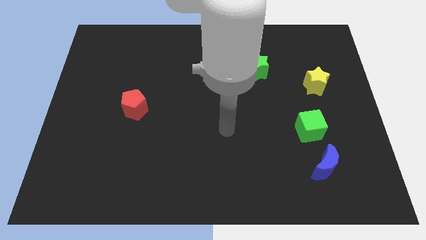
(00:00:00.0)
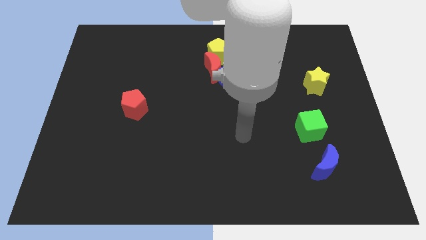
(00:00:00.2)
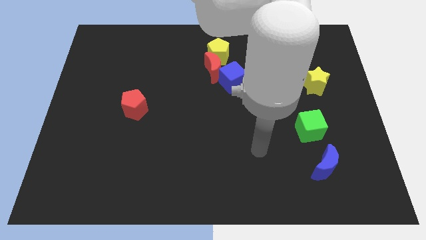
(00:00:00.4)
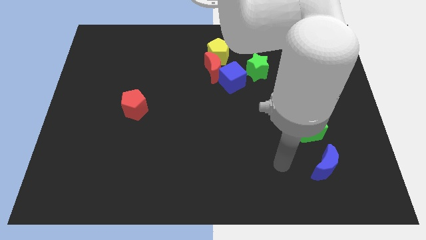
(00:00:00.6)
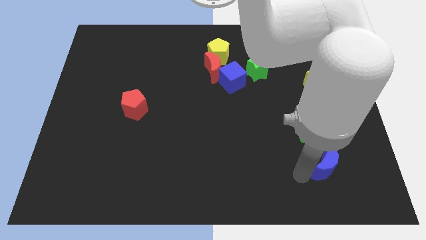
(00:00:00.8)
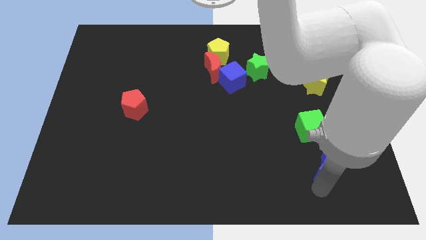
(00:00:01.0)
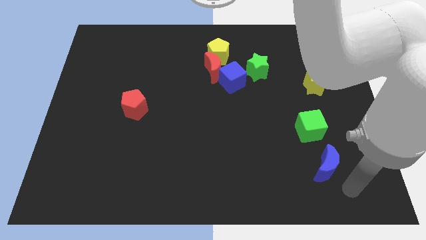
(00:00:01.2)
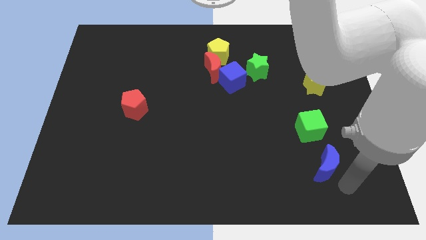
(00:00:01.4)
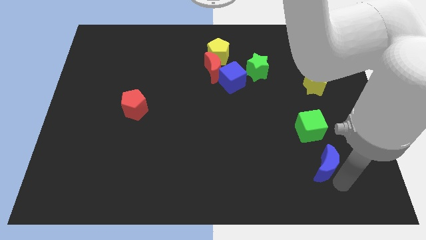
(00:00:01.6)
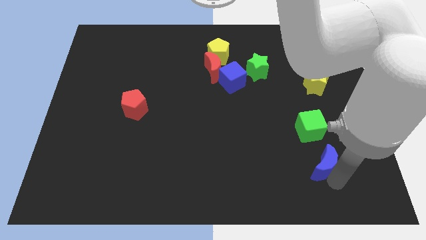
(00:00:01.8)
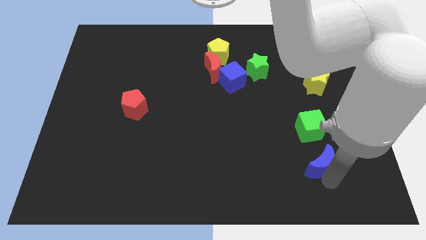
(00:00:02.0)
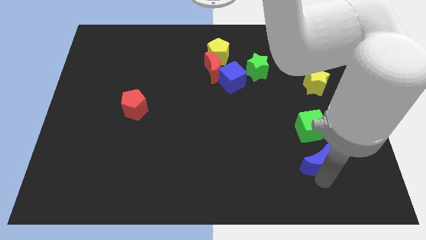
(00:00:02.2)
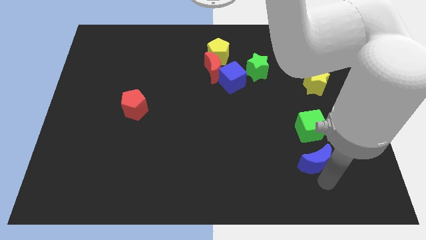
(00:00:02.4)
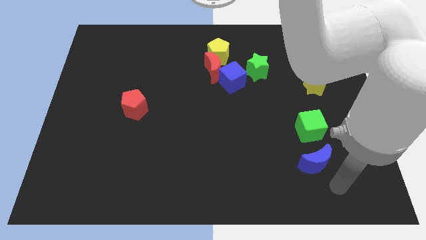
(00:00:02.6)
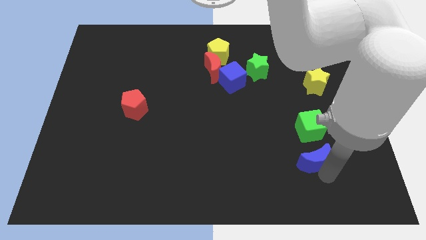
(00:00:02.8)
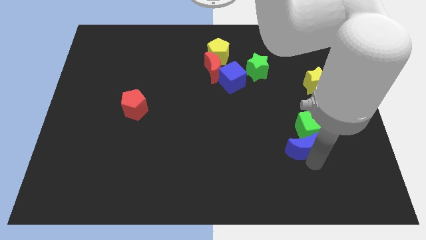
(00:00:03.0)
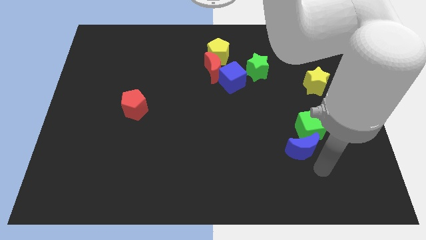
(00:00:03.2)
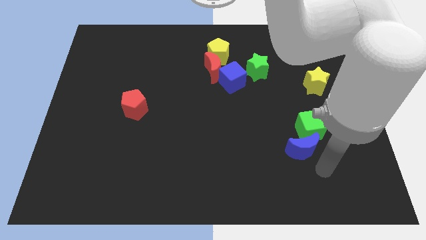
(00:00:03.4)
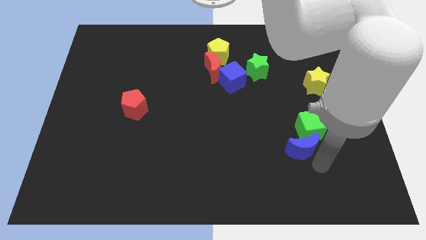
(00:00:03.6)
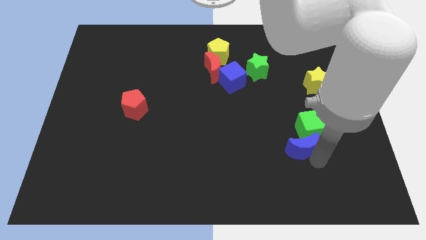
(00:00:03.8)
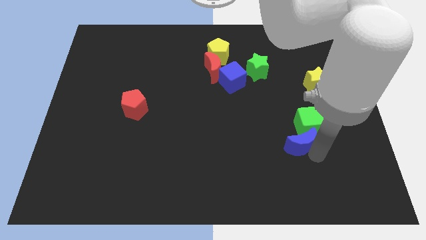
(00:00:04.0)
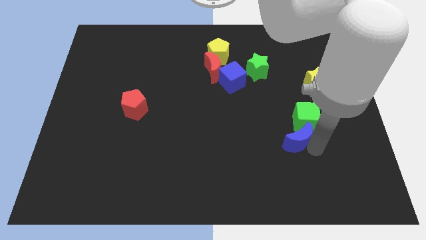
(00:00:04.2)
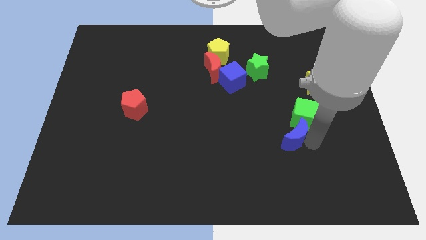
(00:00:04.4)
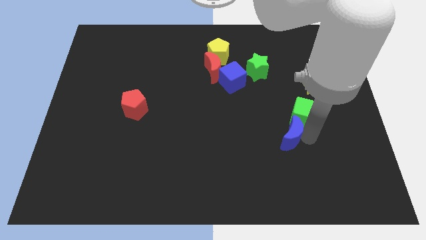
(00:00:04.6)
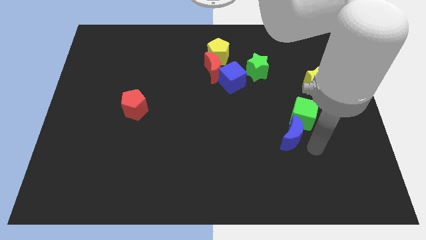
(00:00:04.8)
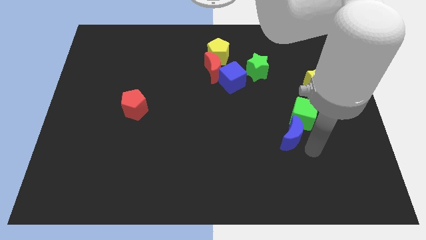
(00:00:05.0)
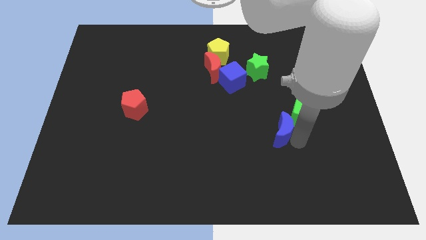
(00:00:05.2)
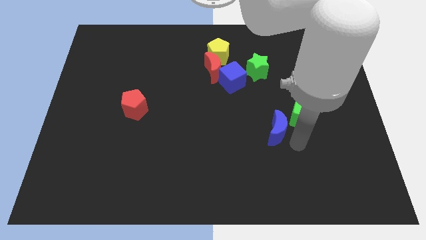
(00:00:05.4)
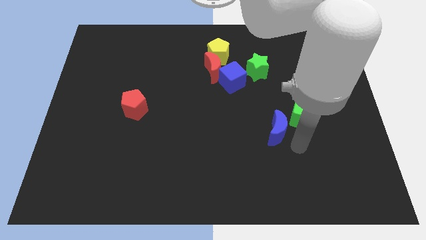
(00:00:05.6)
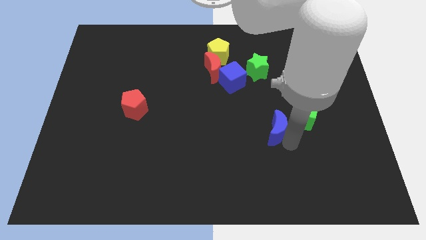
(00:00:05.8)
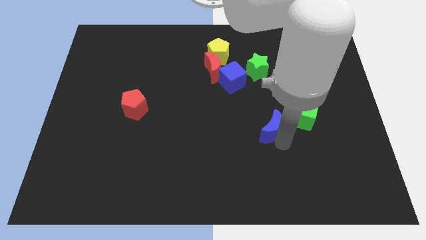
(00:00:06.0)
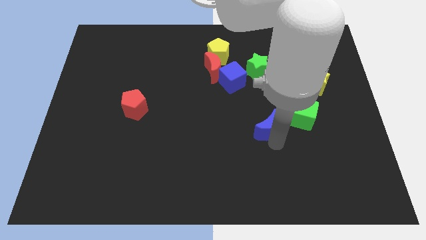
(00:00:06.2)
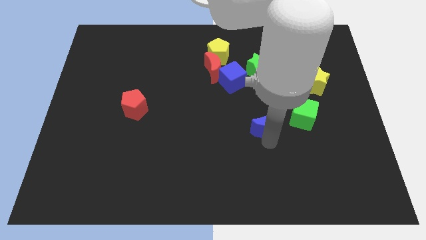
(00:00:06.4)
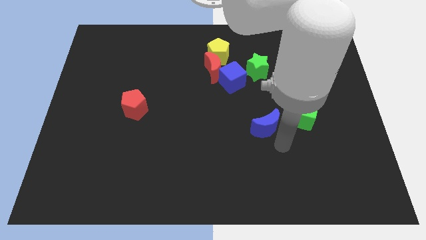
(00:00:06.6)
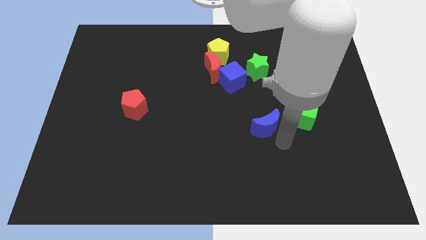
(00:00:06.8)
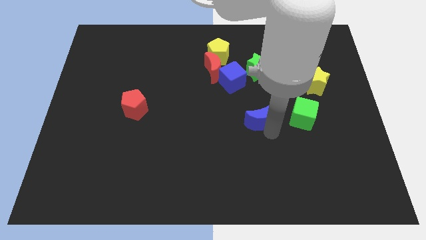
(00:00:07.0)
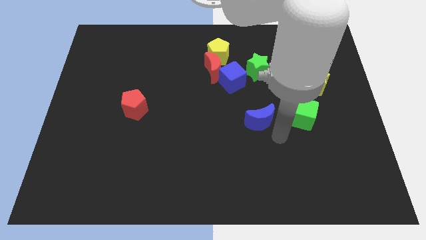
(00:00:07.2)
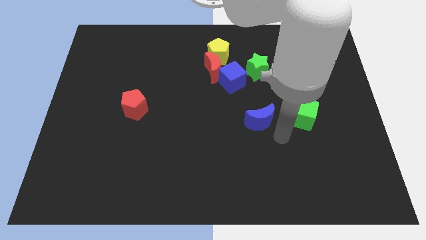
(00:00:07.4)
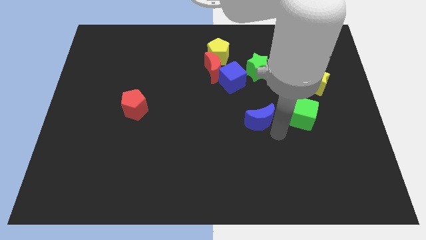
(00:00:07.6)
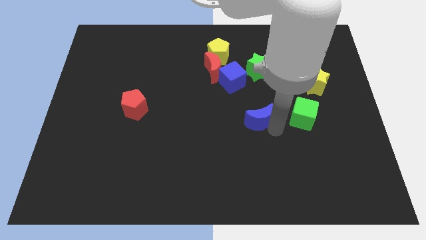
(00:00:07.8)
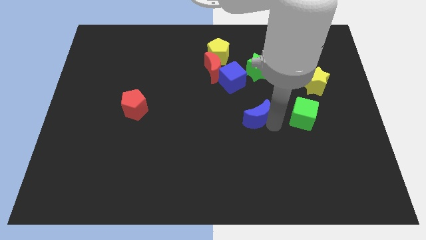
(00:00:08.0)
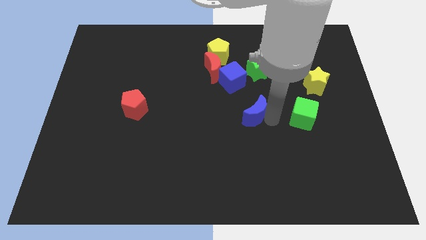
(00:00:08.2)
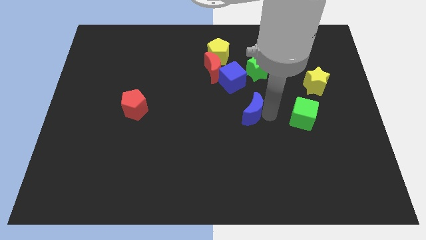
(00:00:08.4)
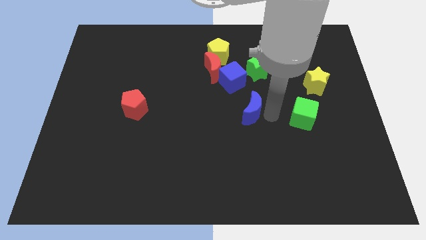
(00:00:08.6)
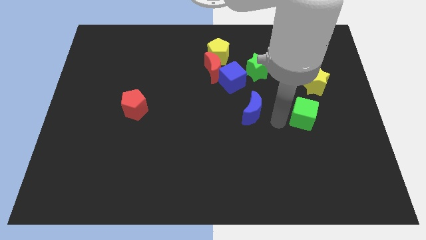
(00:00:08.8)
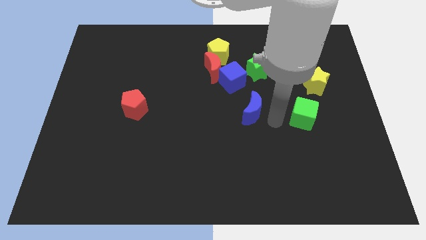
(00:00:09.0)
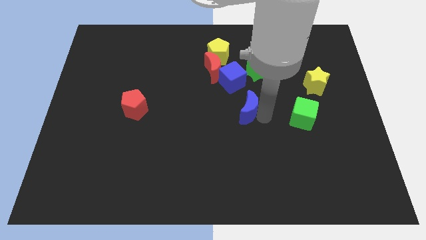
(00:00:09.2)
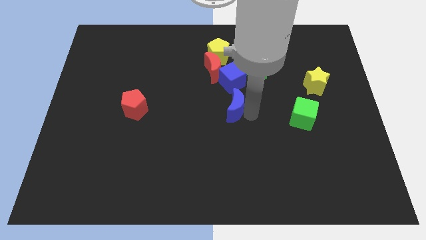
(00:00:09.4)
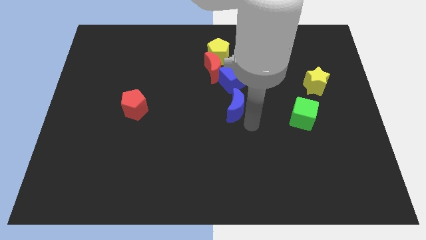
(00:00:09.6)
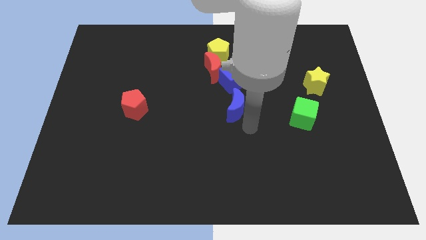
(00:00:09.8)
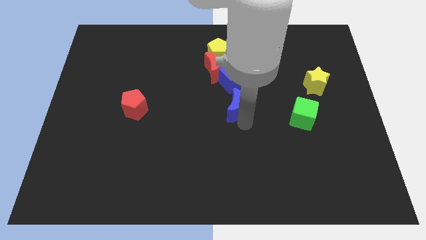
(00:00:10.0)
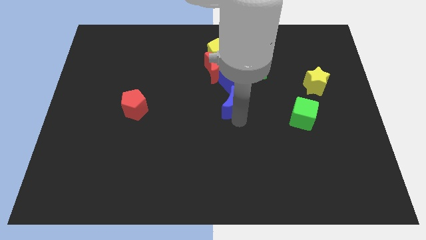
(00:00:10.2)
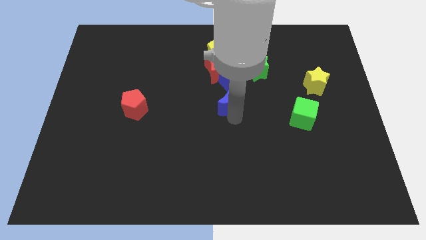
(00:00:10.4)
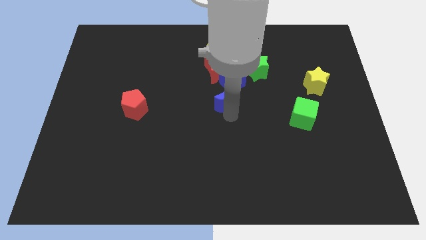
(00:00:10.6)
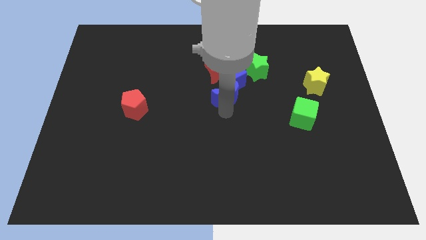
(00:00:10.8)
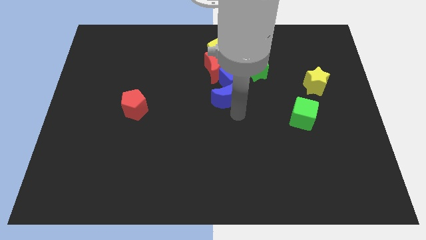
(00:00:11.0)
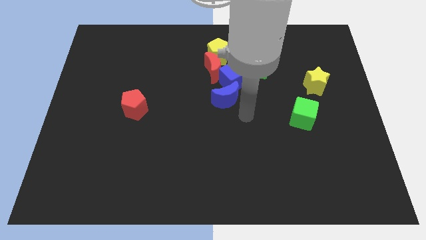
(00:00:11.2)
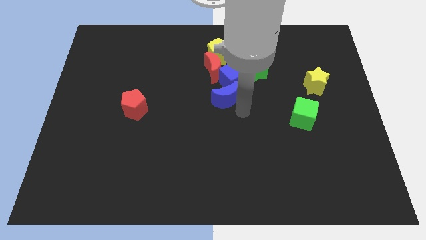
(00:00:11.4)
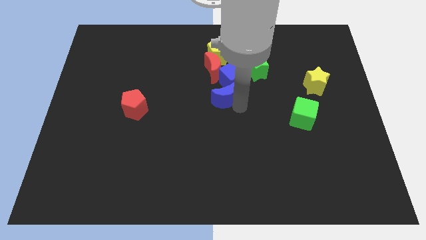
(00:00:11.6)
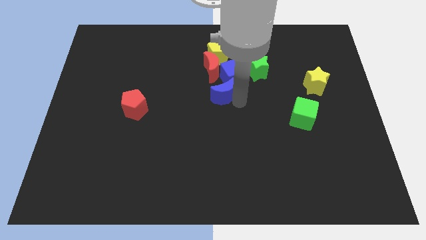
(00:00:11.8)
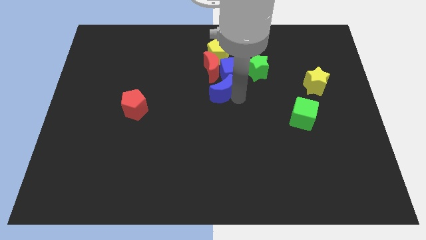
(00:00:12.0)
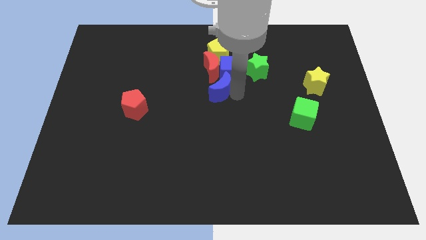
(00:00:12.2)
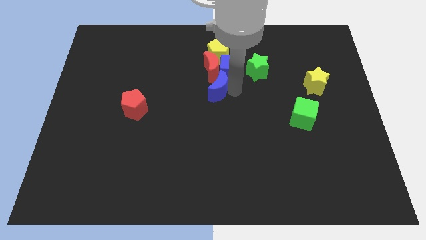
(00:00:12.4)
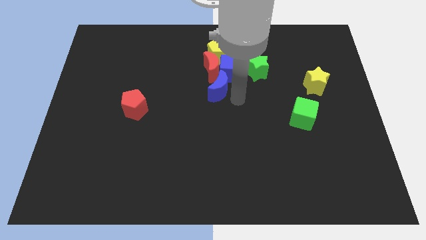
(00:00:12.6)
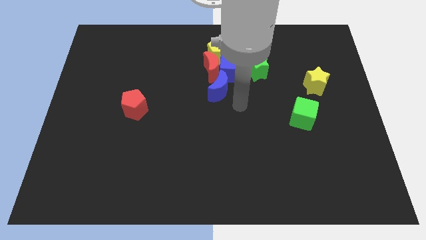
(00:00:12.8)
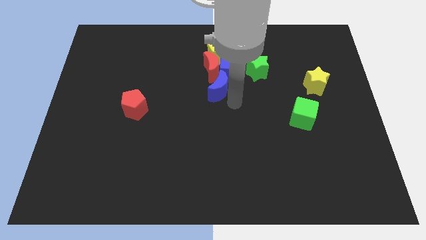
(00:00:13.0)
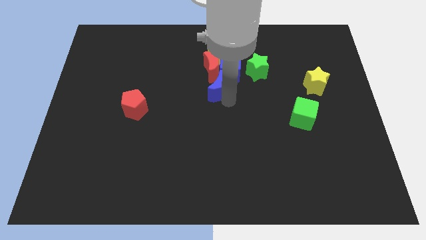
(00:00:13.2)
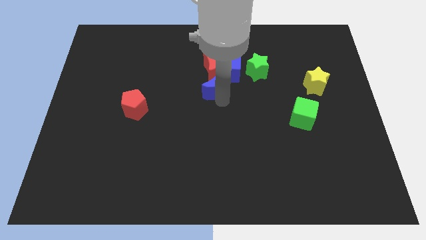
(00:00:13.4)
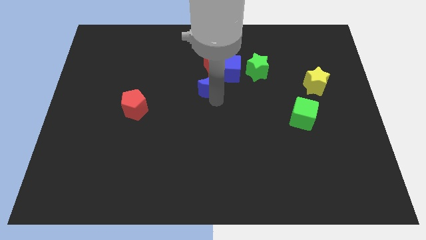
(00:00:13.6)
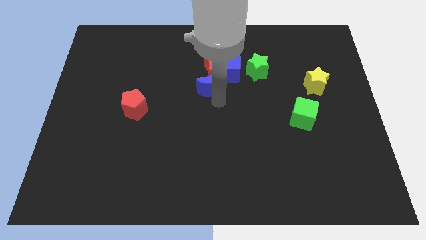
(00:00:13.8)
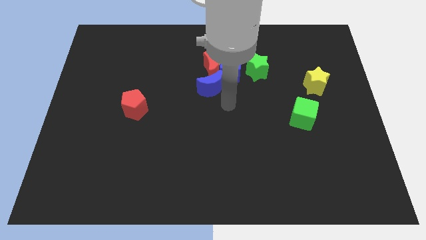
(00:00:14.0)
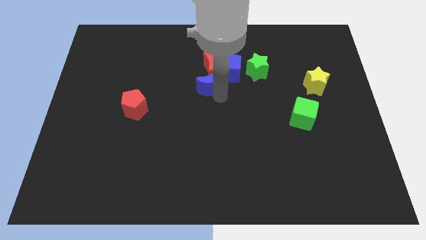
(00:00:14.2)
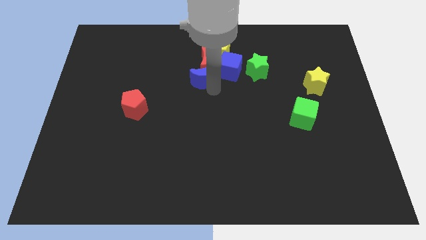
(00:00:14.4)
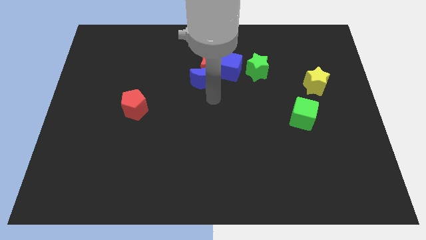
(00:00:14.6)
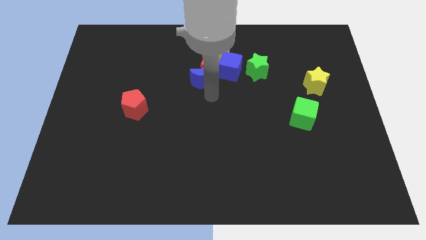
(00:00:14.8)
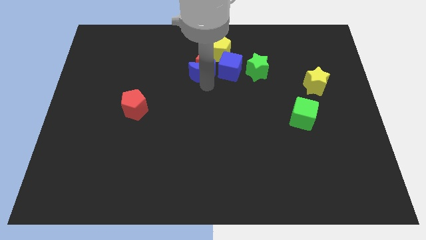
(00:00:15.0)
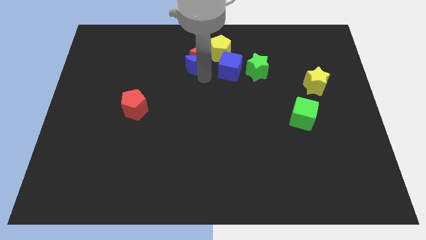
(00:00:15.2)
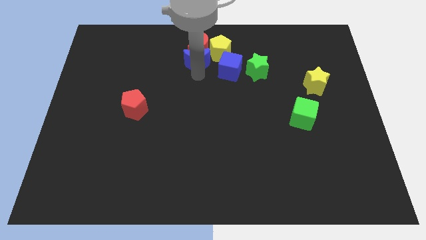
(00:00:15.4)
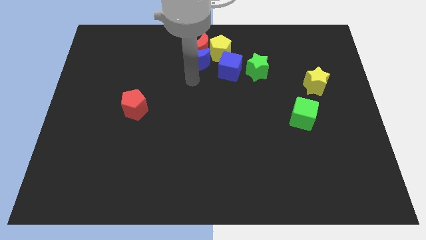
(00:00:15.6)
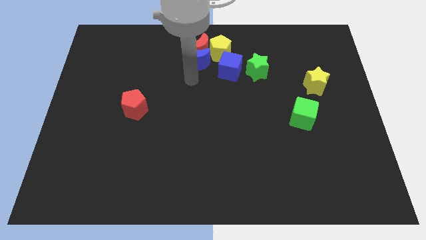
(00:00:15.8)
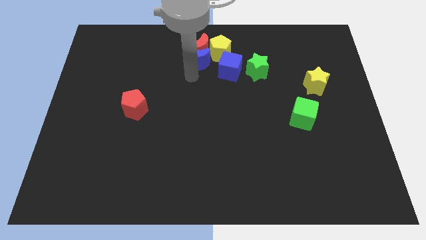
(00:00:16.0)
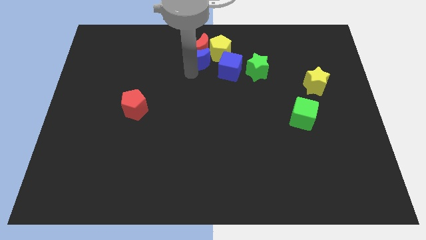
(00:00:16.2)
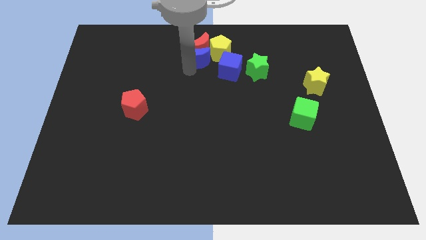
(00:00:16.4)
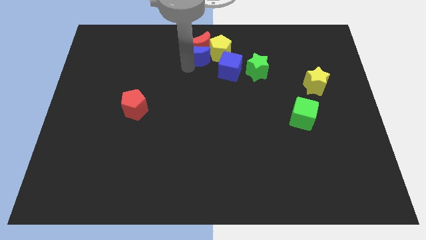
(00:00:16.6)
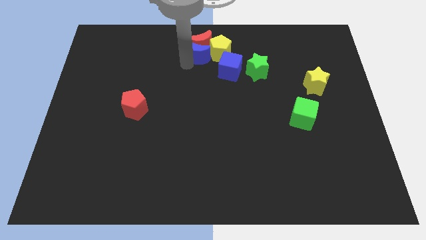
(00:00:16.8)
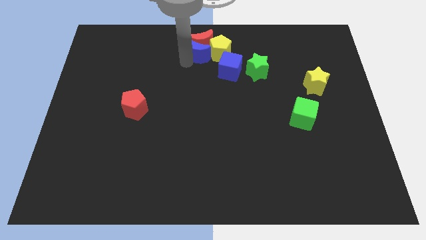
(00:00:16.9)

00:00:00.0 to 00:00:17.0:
move the blue moon to the towards your base
